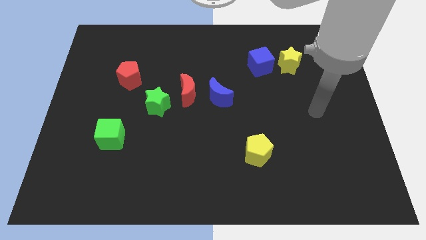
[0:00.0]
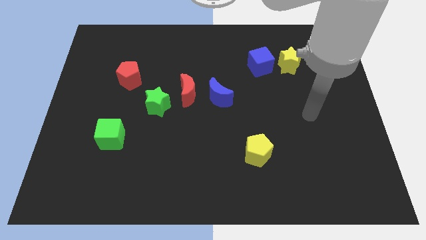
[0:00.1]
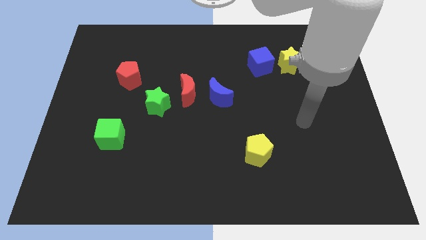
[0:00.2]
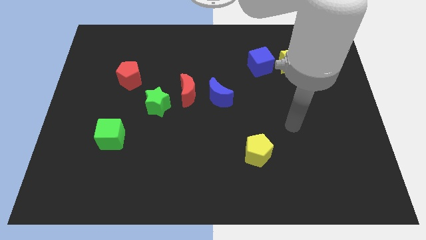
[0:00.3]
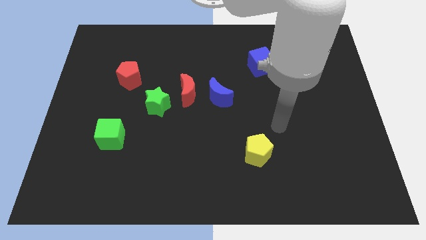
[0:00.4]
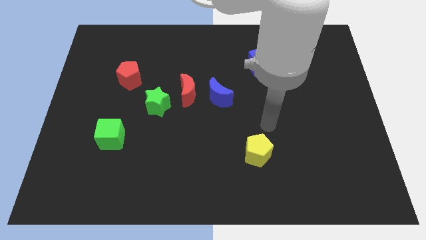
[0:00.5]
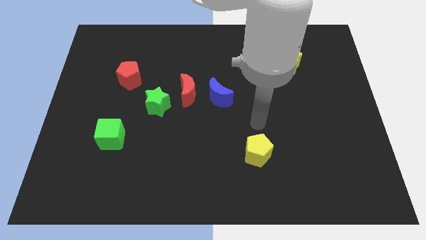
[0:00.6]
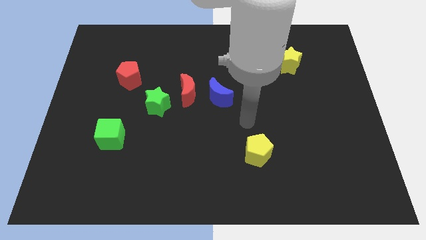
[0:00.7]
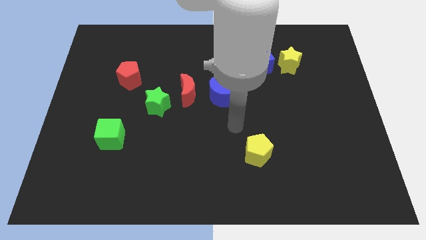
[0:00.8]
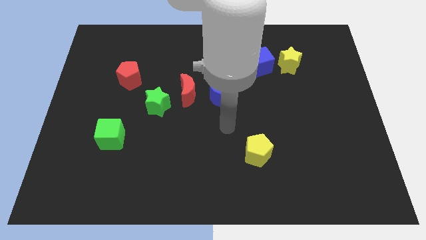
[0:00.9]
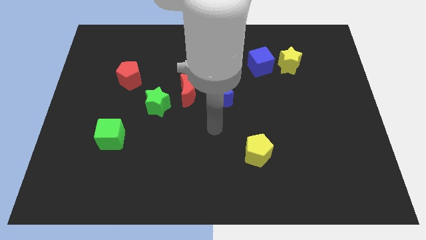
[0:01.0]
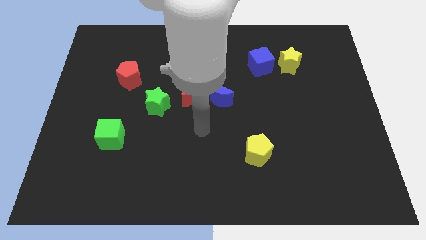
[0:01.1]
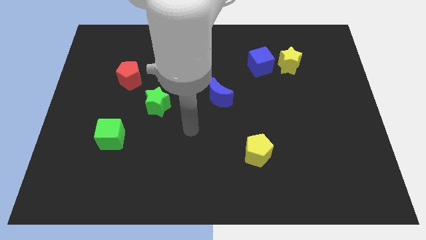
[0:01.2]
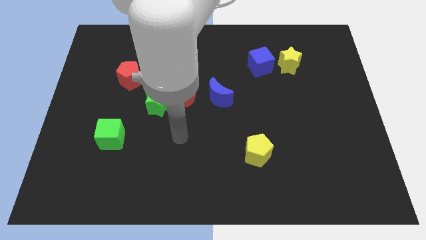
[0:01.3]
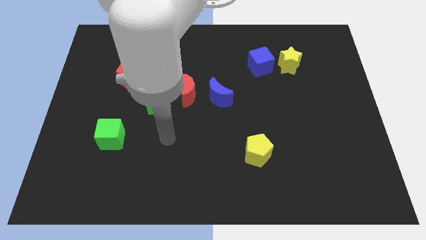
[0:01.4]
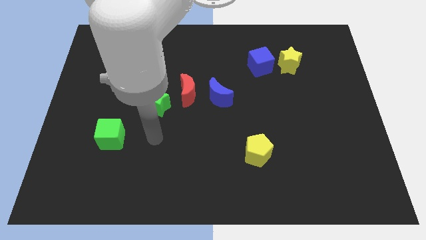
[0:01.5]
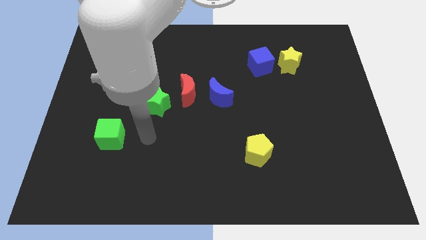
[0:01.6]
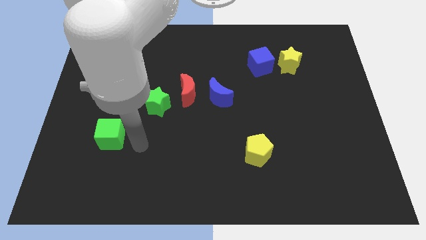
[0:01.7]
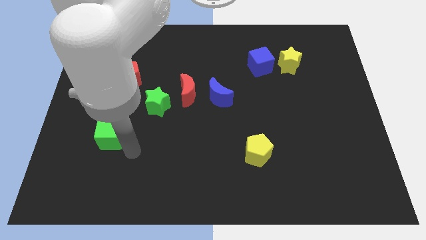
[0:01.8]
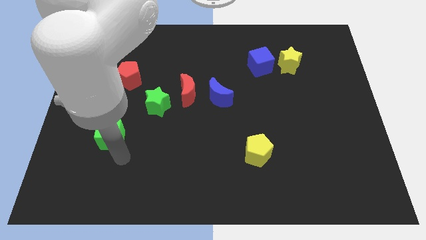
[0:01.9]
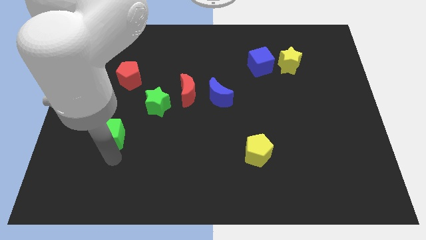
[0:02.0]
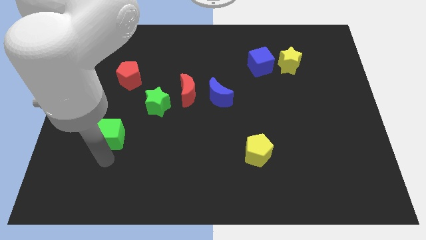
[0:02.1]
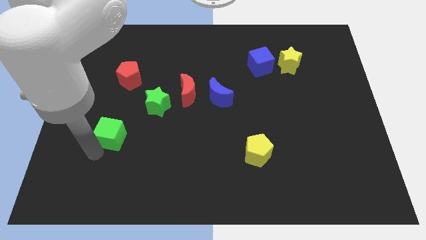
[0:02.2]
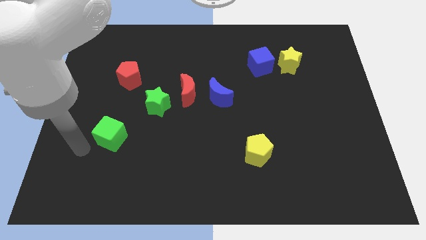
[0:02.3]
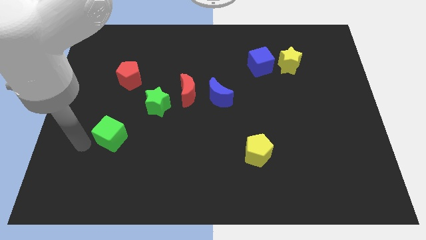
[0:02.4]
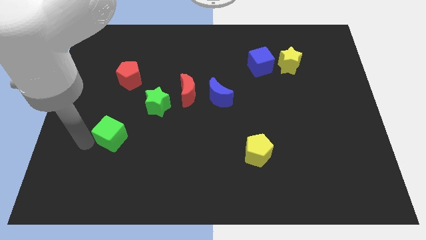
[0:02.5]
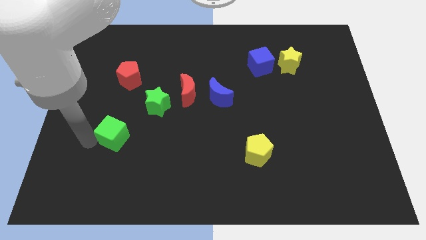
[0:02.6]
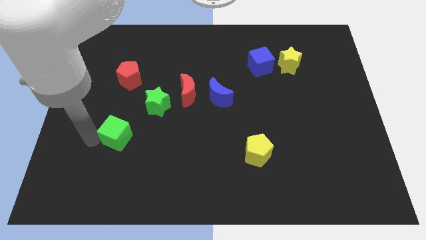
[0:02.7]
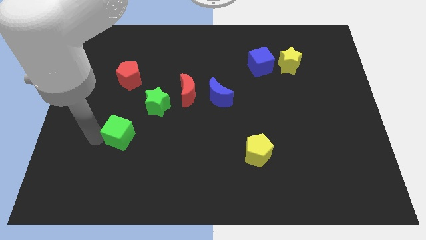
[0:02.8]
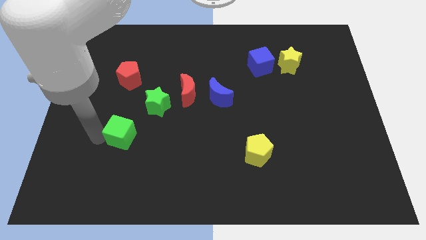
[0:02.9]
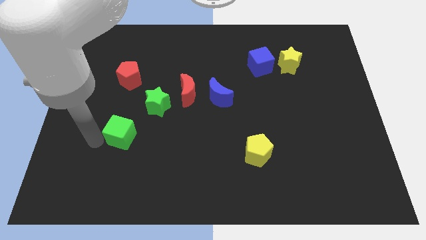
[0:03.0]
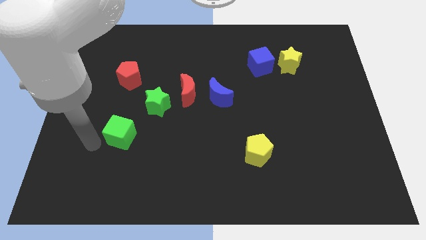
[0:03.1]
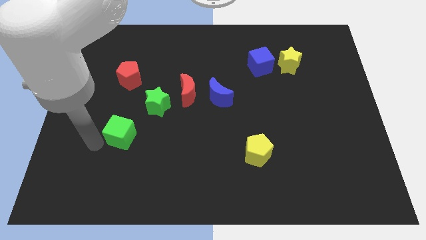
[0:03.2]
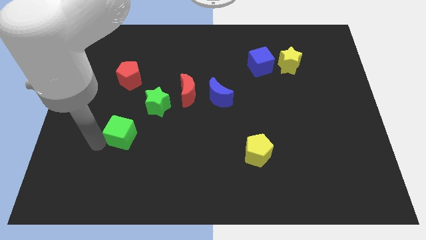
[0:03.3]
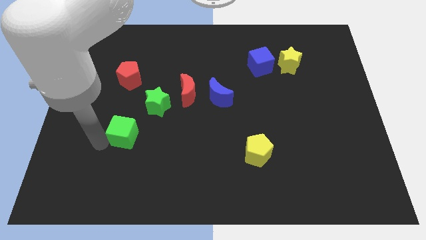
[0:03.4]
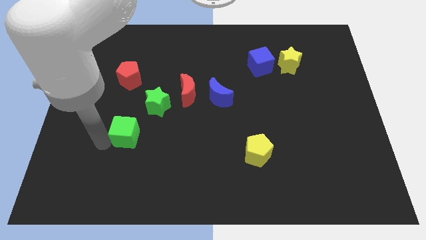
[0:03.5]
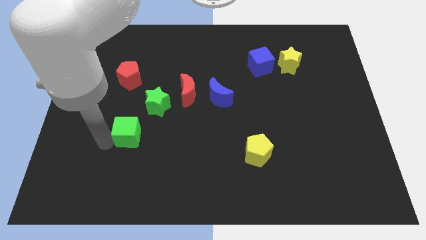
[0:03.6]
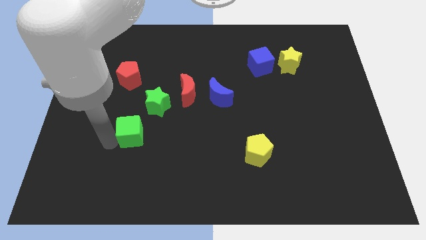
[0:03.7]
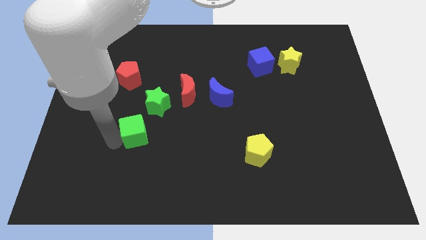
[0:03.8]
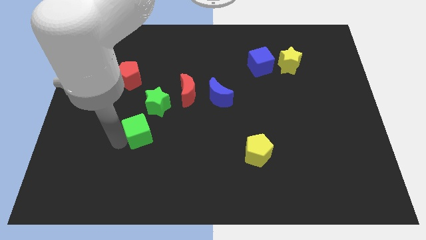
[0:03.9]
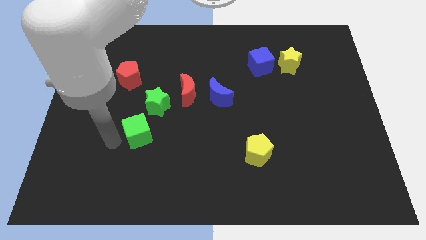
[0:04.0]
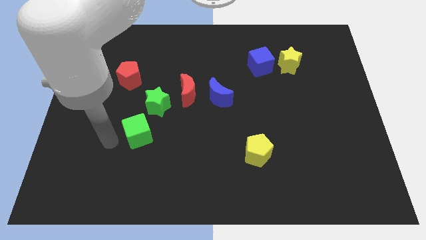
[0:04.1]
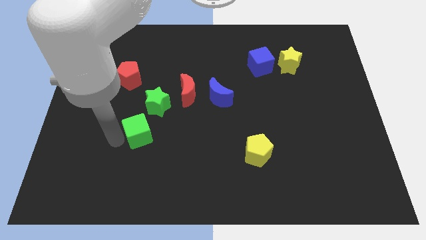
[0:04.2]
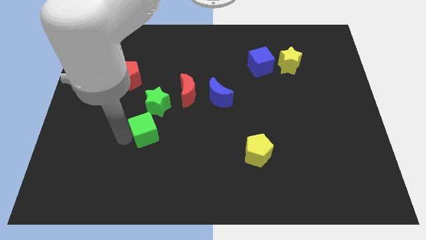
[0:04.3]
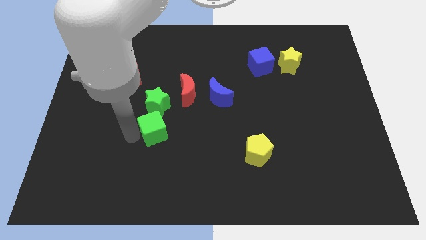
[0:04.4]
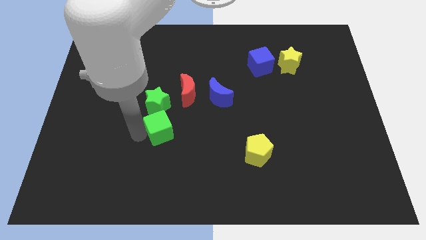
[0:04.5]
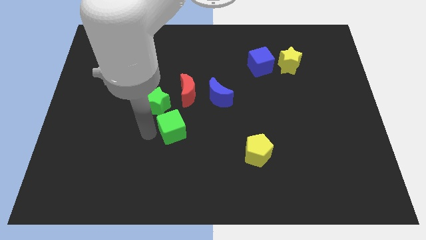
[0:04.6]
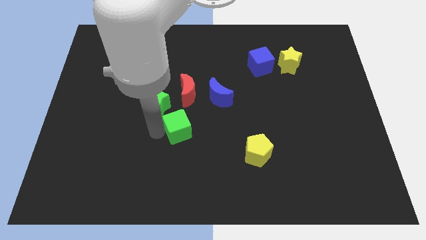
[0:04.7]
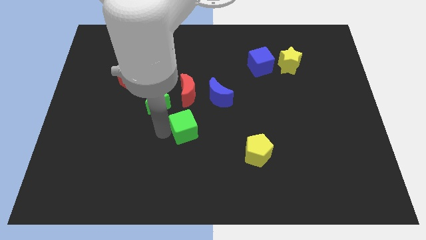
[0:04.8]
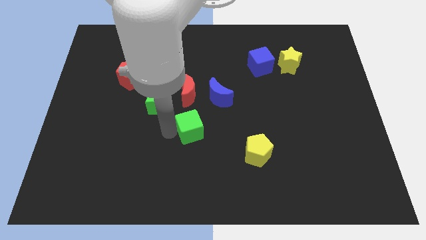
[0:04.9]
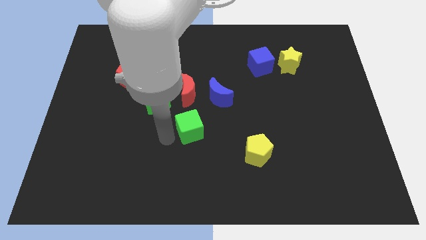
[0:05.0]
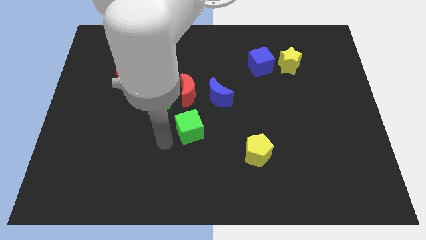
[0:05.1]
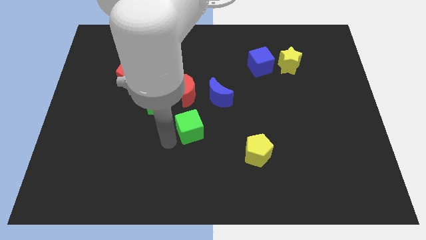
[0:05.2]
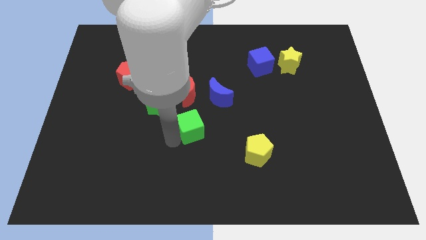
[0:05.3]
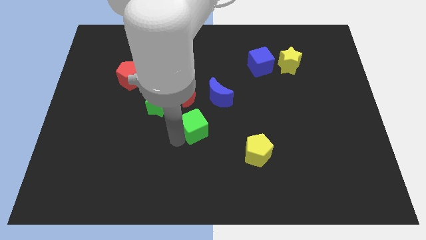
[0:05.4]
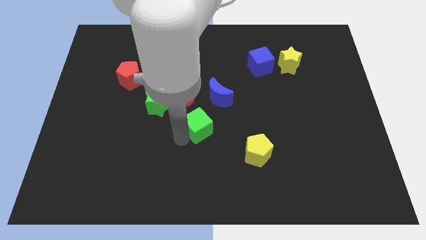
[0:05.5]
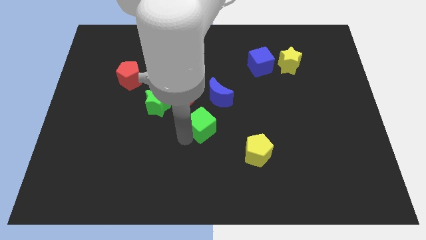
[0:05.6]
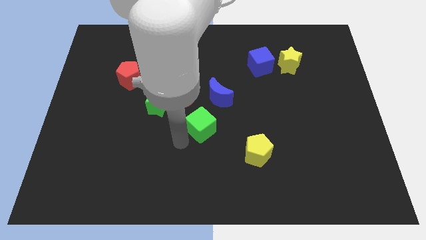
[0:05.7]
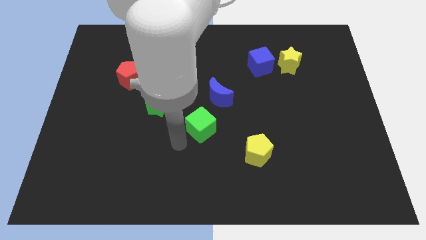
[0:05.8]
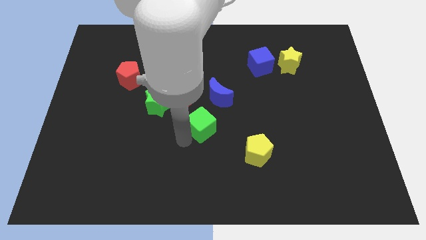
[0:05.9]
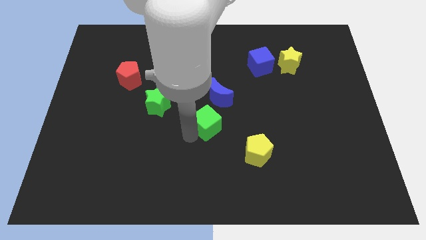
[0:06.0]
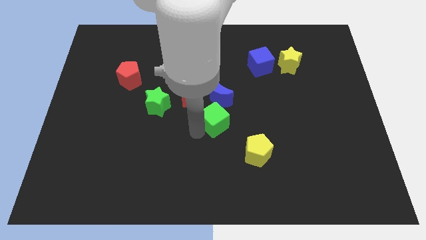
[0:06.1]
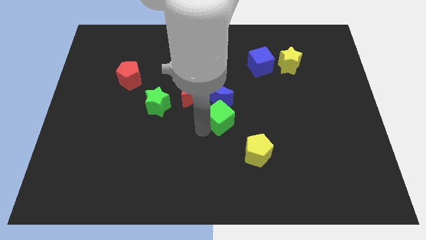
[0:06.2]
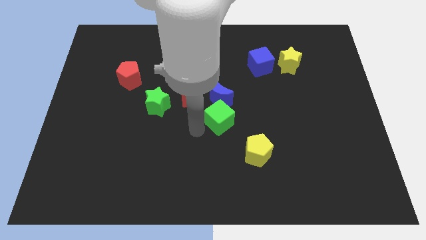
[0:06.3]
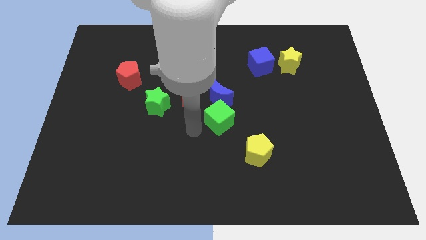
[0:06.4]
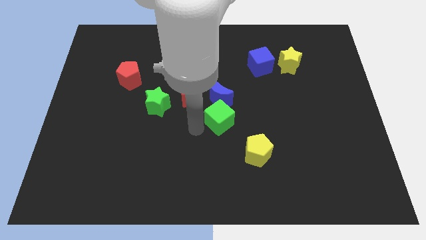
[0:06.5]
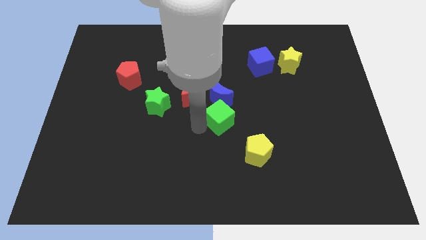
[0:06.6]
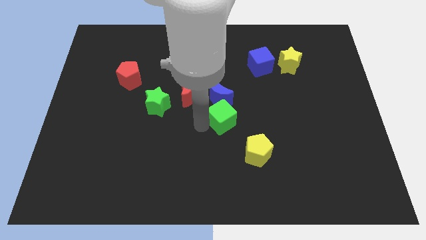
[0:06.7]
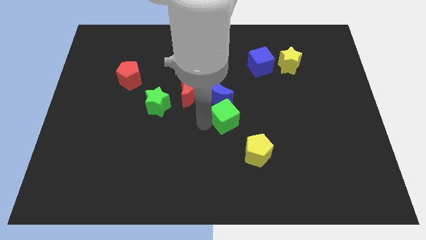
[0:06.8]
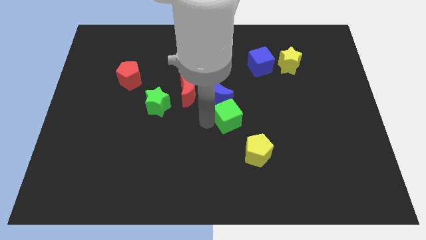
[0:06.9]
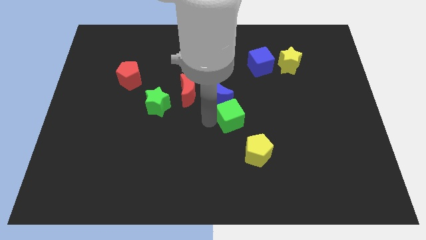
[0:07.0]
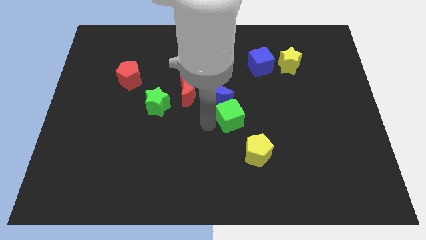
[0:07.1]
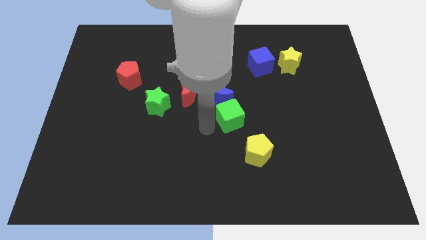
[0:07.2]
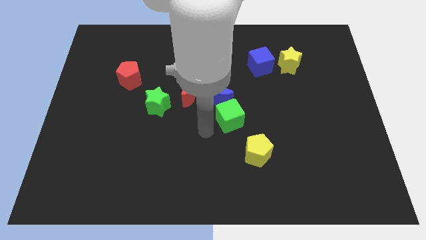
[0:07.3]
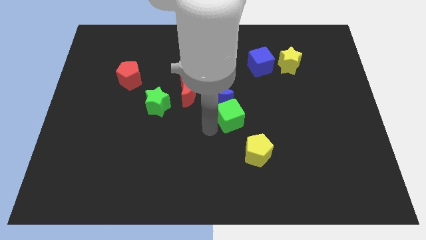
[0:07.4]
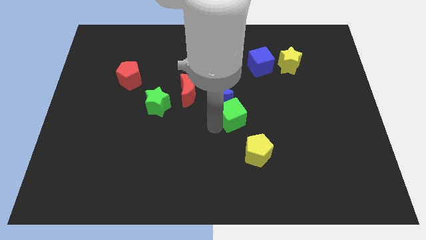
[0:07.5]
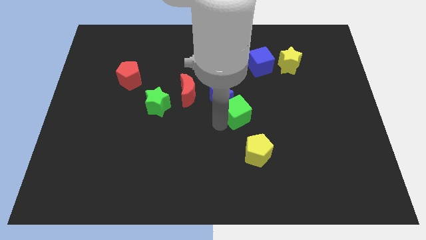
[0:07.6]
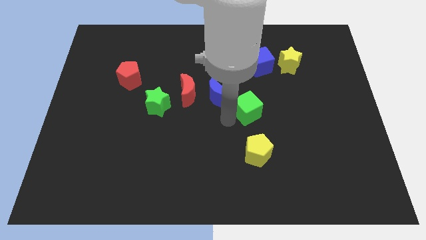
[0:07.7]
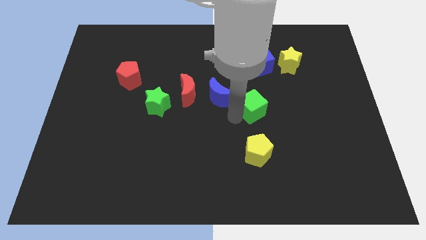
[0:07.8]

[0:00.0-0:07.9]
put the green cube below the blue cube
